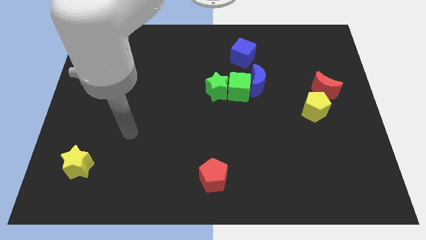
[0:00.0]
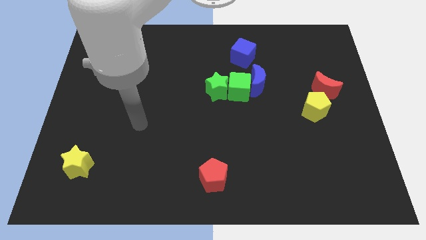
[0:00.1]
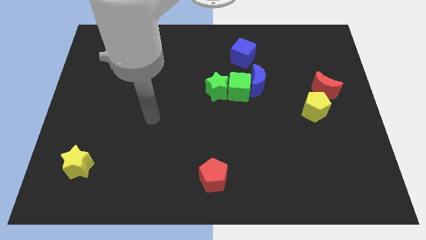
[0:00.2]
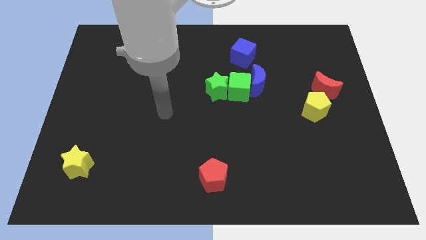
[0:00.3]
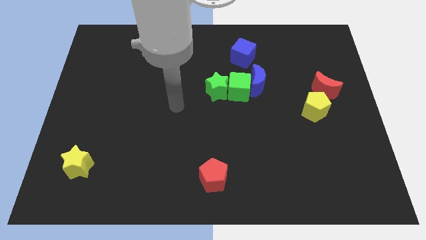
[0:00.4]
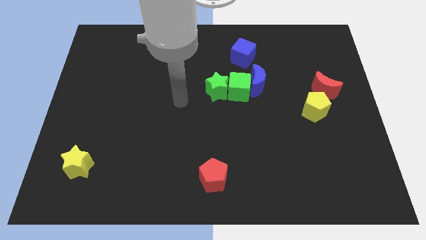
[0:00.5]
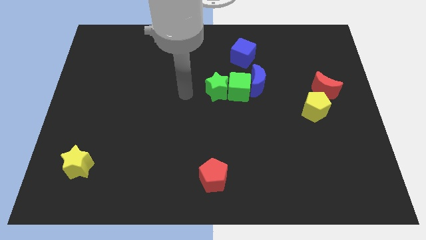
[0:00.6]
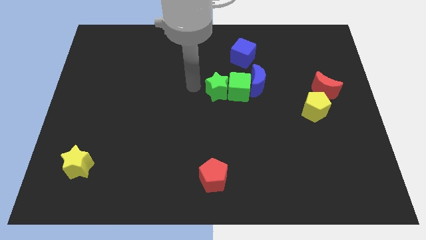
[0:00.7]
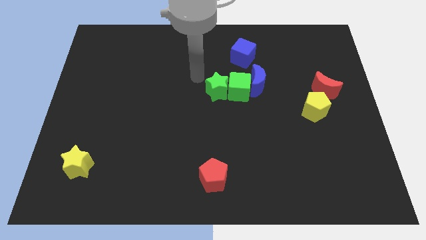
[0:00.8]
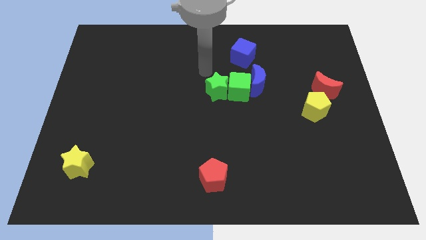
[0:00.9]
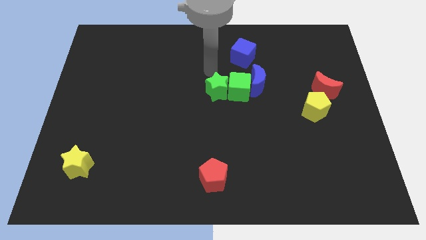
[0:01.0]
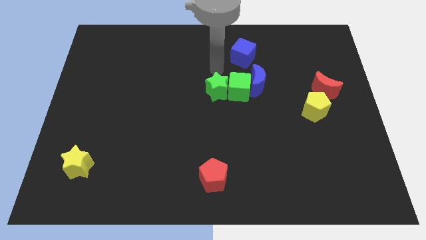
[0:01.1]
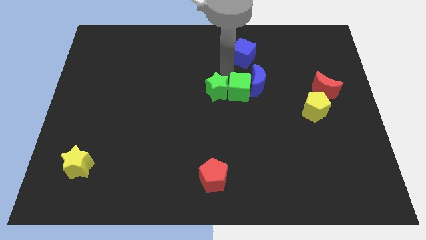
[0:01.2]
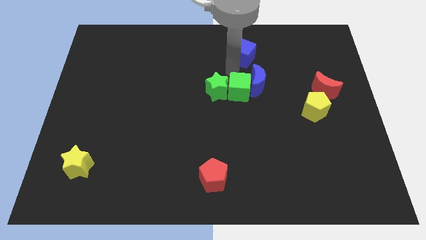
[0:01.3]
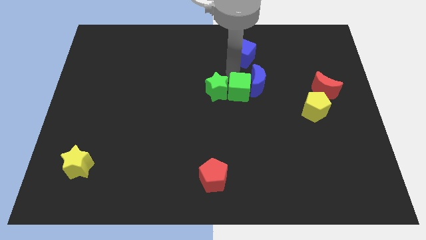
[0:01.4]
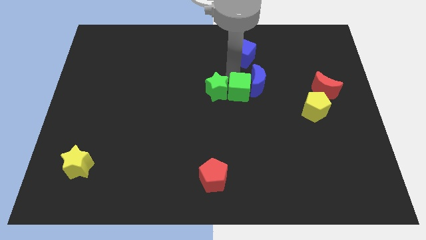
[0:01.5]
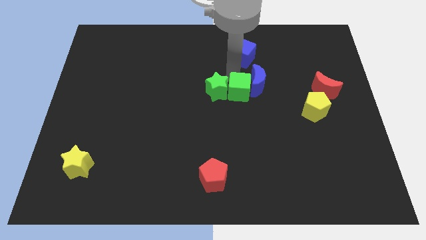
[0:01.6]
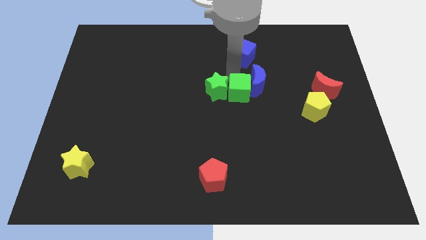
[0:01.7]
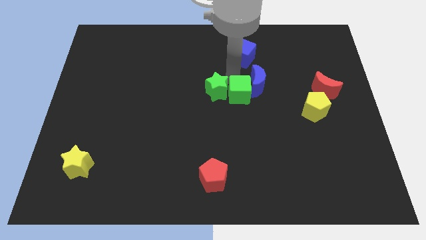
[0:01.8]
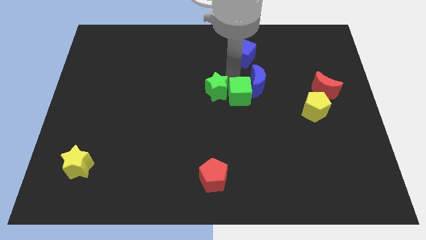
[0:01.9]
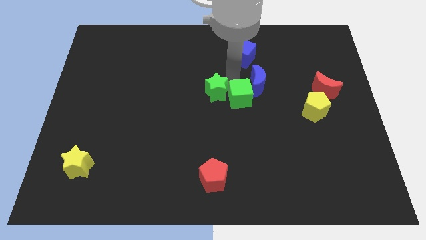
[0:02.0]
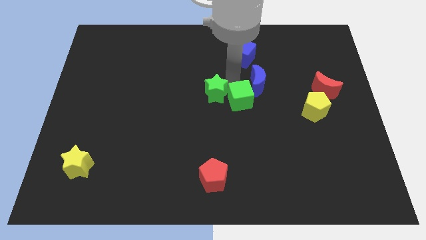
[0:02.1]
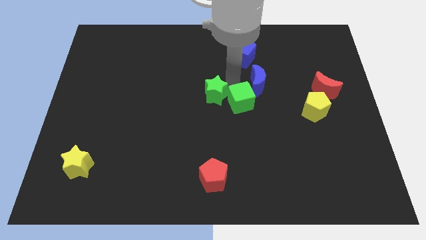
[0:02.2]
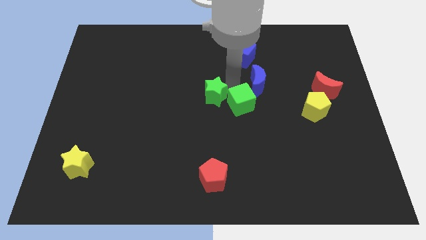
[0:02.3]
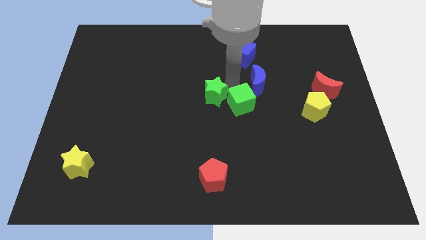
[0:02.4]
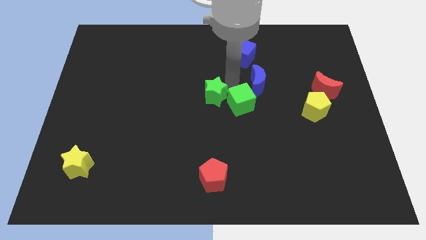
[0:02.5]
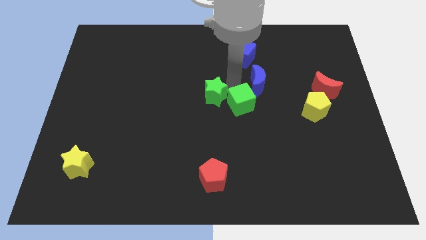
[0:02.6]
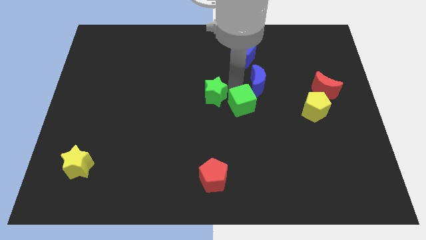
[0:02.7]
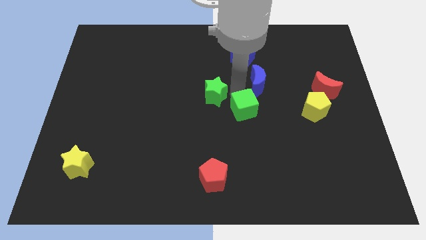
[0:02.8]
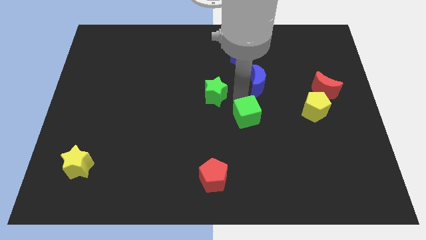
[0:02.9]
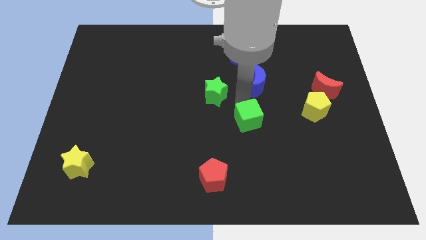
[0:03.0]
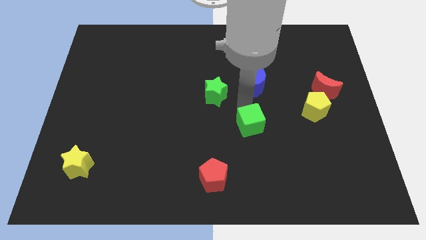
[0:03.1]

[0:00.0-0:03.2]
move the green cube away from the green star and blue moon

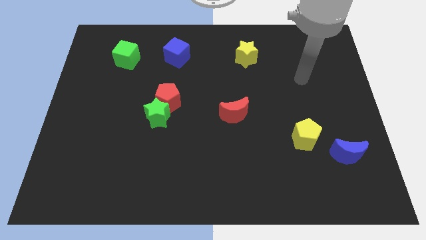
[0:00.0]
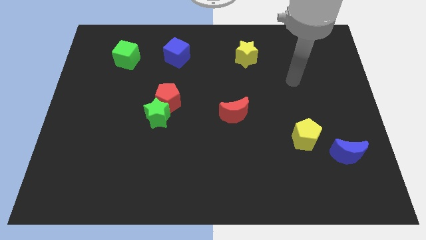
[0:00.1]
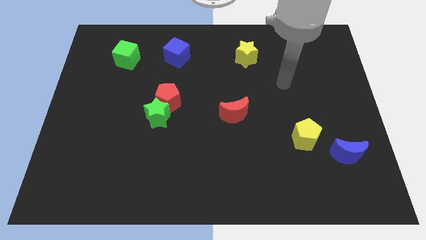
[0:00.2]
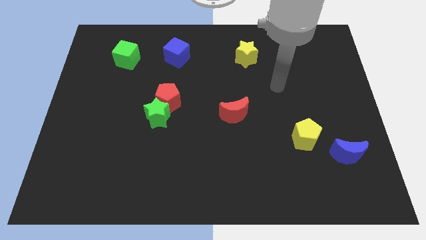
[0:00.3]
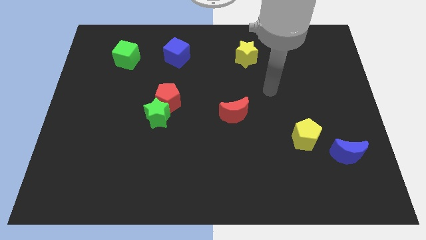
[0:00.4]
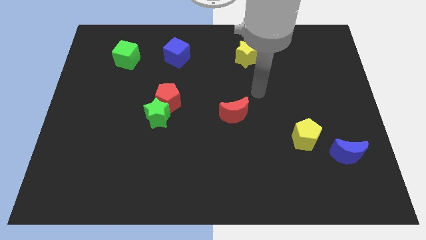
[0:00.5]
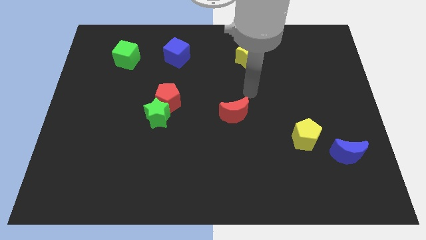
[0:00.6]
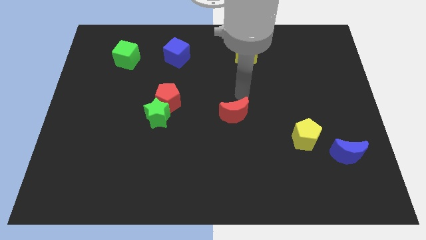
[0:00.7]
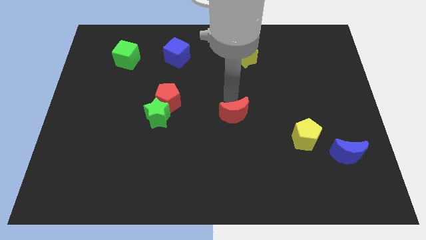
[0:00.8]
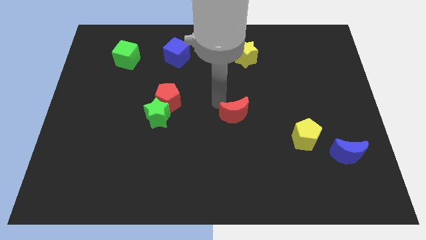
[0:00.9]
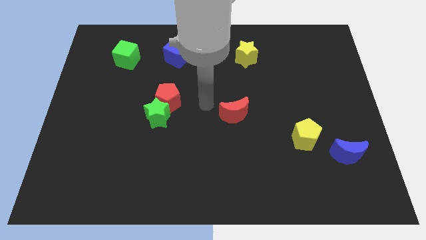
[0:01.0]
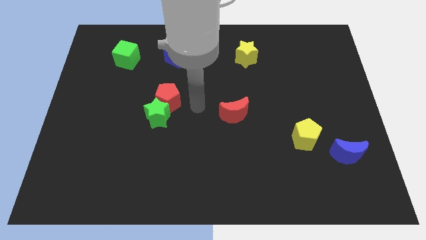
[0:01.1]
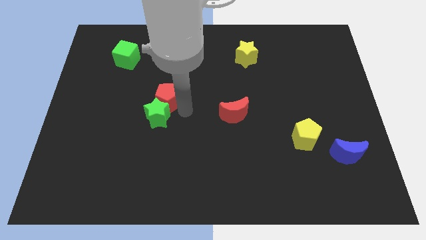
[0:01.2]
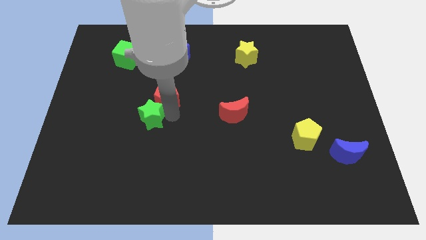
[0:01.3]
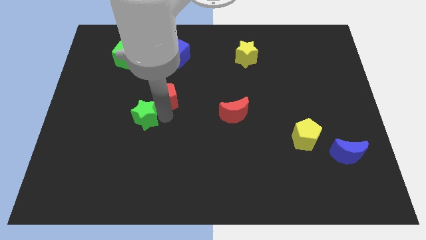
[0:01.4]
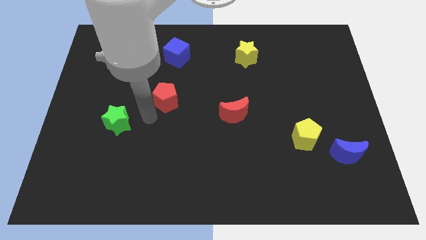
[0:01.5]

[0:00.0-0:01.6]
move the red pentagon away from the green star

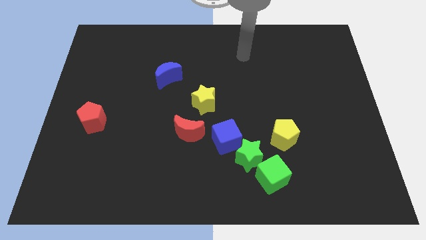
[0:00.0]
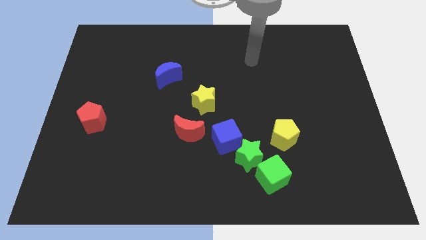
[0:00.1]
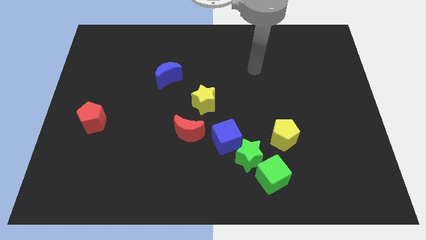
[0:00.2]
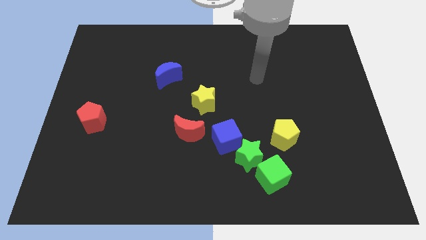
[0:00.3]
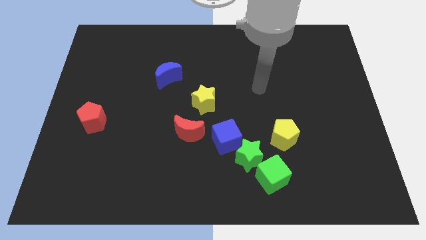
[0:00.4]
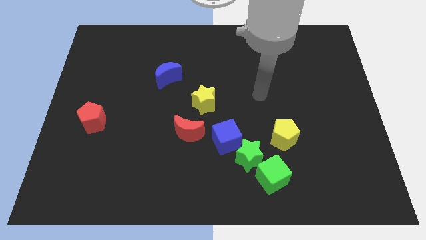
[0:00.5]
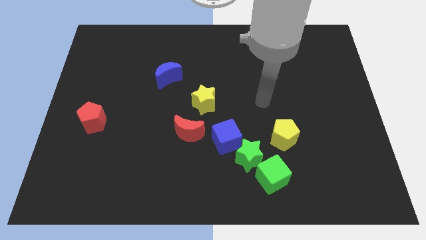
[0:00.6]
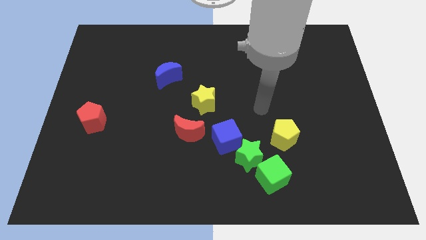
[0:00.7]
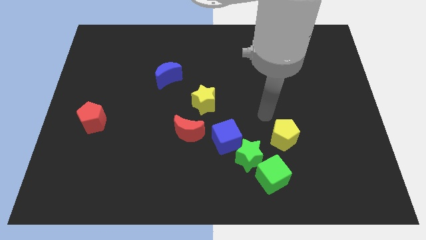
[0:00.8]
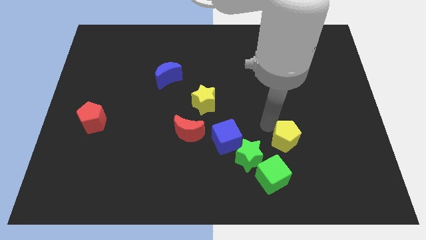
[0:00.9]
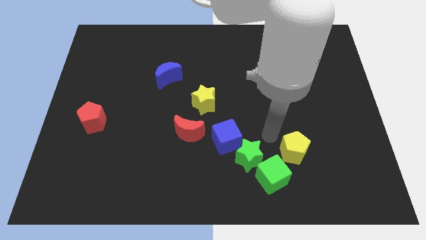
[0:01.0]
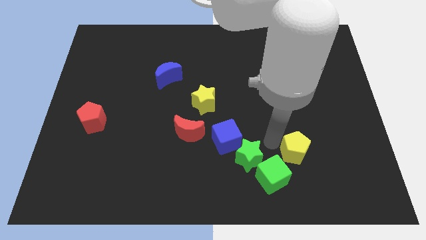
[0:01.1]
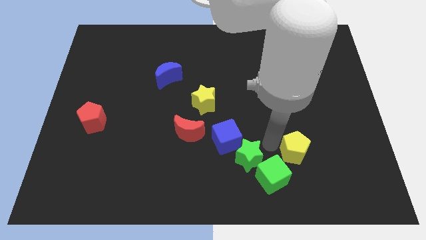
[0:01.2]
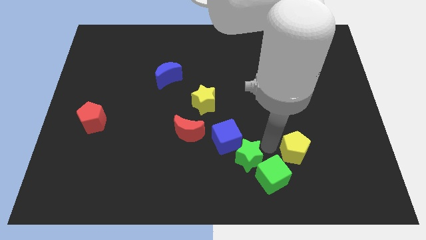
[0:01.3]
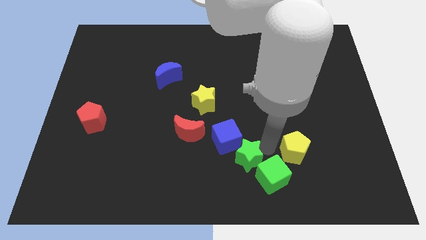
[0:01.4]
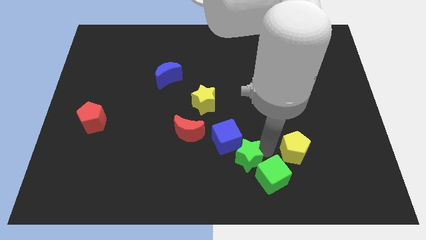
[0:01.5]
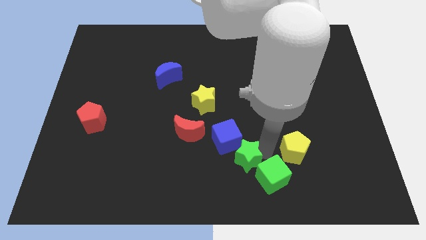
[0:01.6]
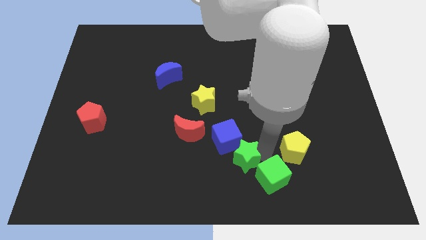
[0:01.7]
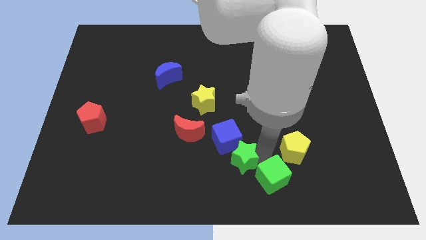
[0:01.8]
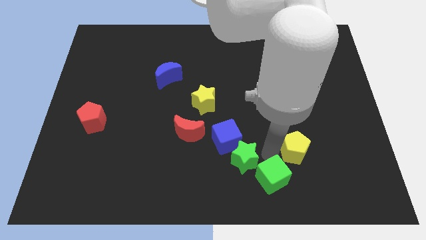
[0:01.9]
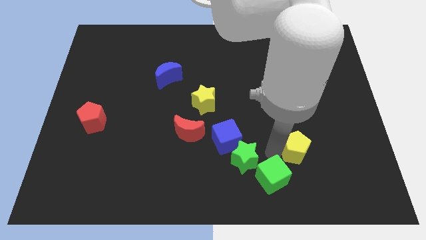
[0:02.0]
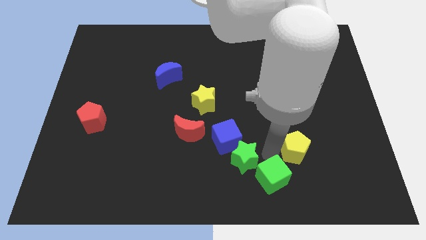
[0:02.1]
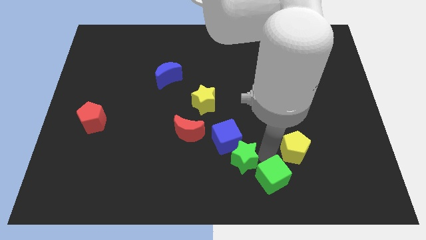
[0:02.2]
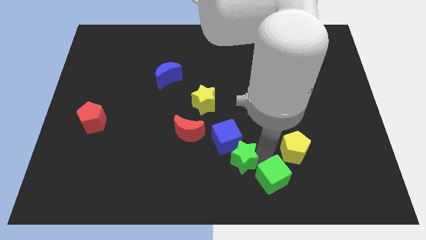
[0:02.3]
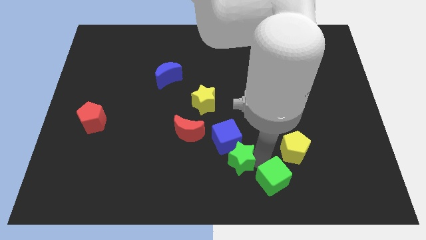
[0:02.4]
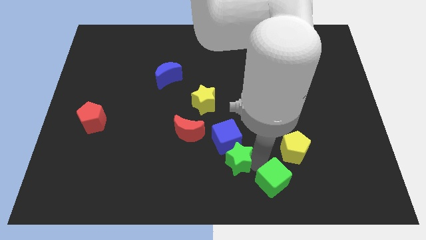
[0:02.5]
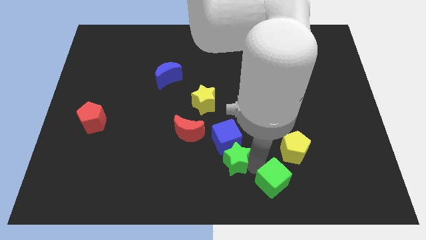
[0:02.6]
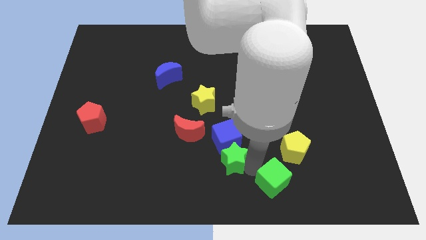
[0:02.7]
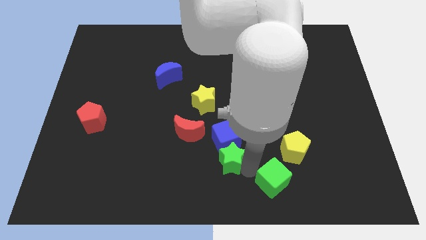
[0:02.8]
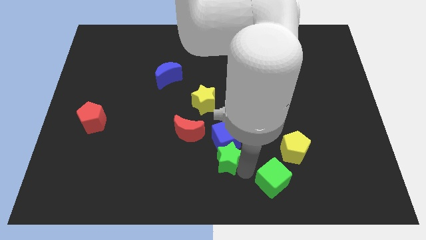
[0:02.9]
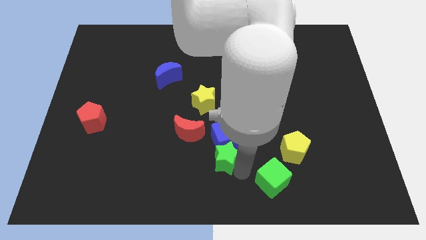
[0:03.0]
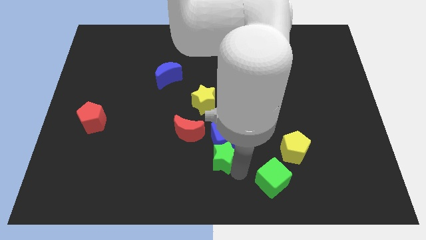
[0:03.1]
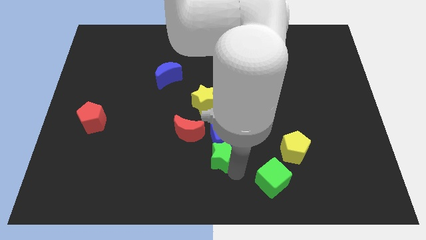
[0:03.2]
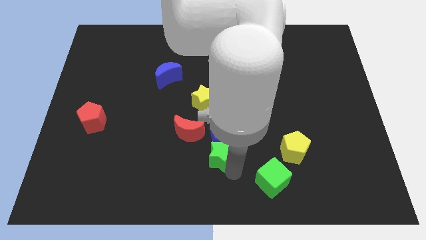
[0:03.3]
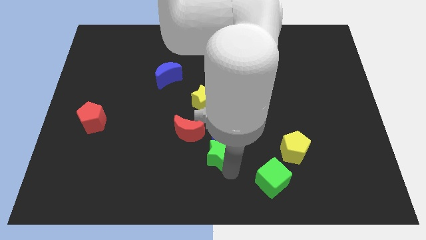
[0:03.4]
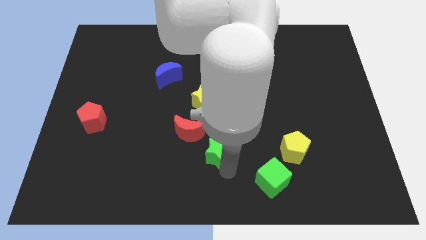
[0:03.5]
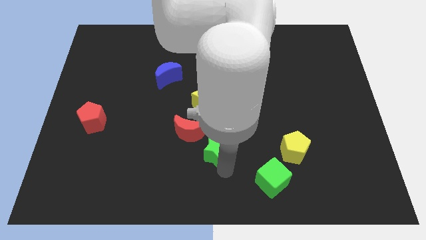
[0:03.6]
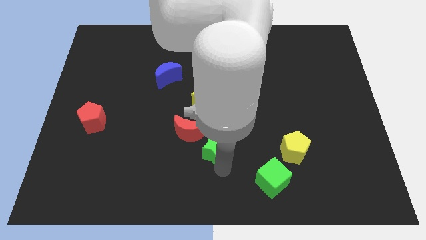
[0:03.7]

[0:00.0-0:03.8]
pull the green star apart from the green cube, blue cube, and yellow pentagon

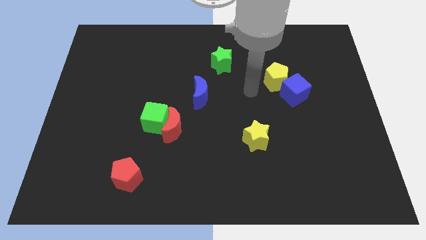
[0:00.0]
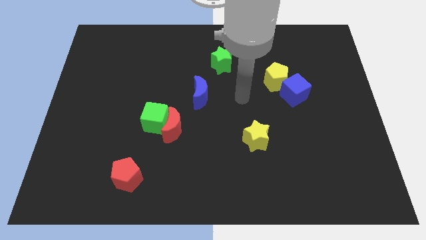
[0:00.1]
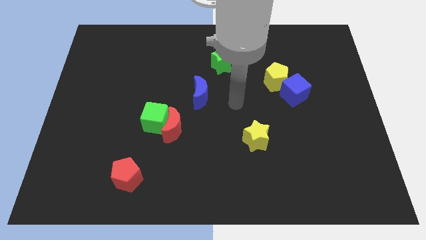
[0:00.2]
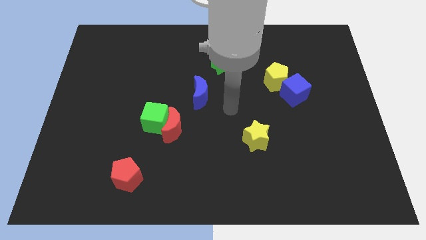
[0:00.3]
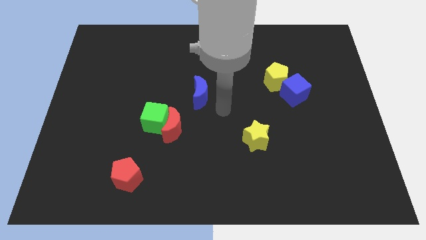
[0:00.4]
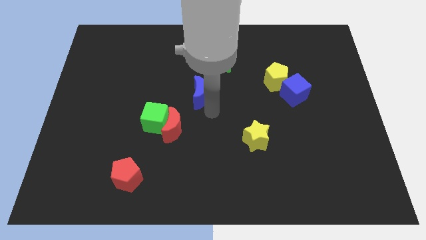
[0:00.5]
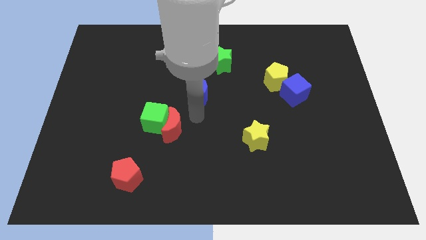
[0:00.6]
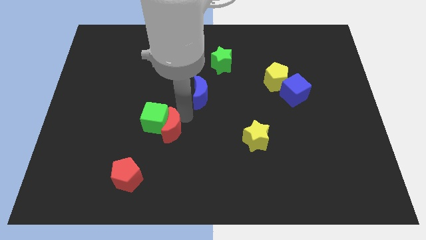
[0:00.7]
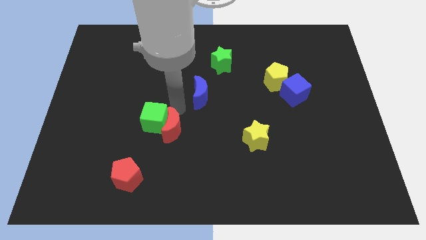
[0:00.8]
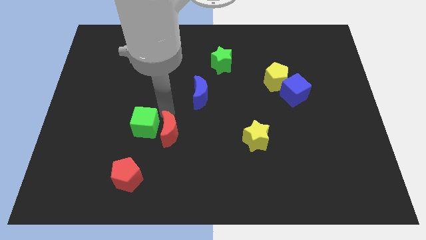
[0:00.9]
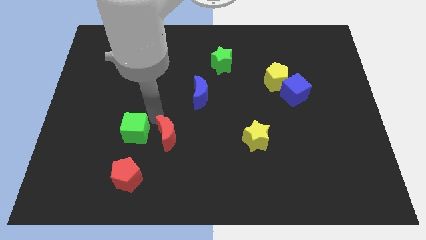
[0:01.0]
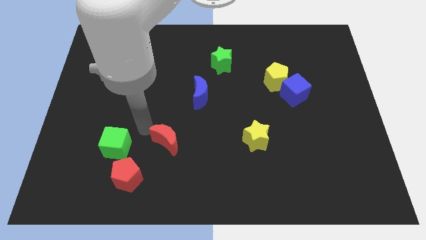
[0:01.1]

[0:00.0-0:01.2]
separate the red moon from the green cube
